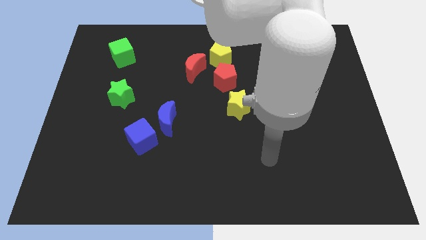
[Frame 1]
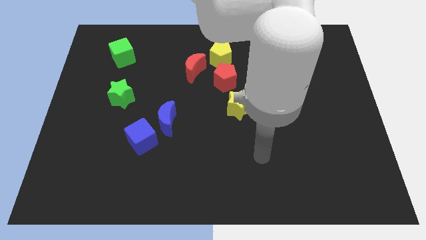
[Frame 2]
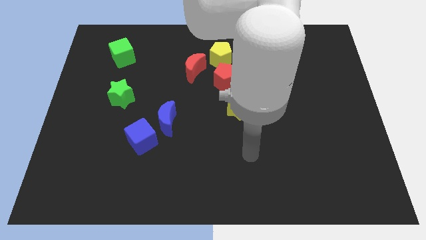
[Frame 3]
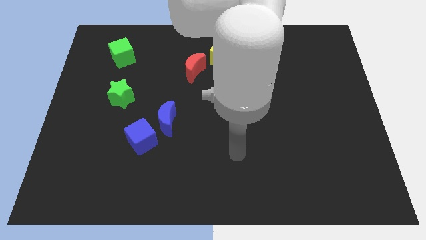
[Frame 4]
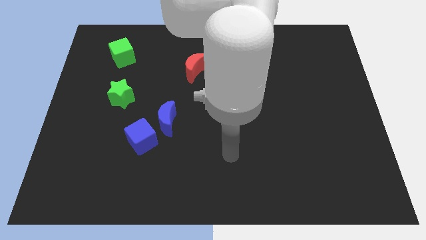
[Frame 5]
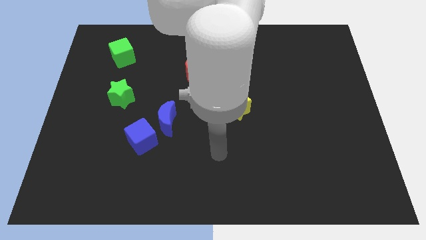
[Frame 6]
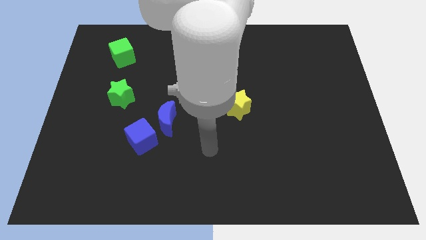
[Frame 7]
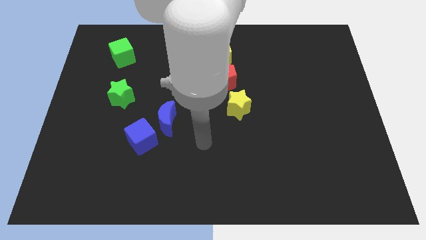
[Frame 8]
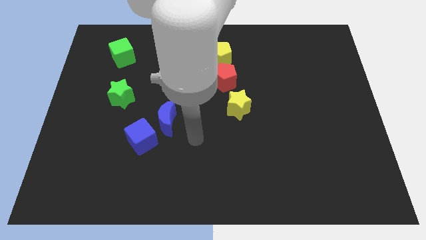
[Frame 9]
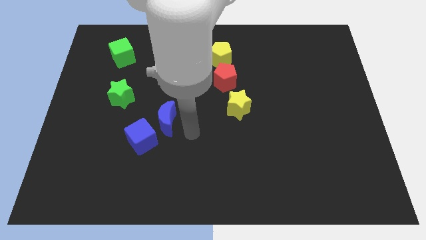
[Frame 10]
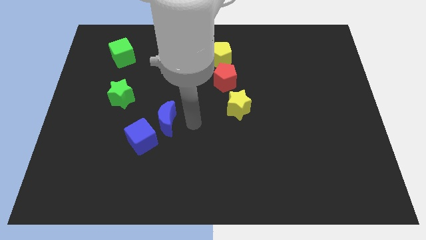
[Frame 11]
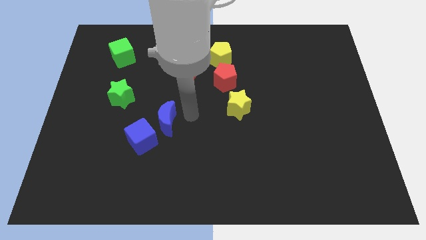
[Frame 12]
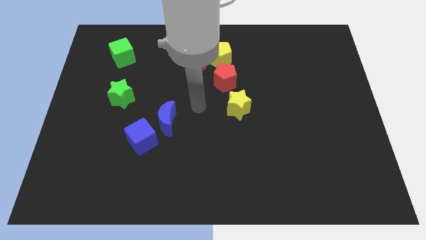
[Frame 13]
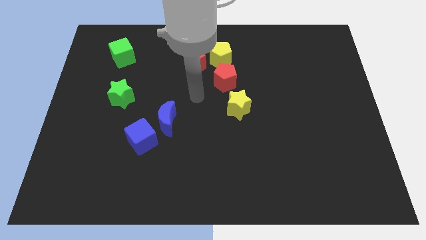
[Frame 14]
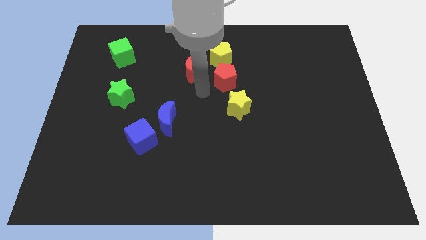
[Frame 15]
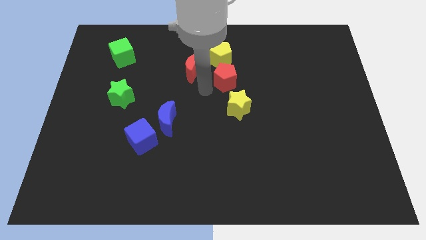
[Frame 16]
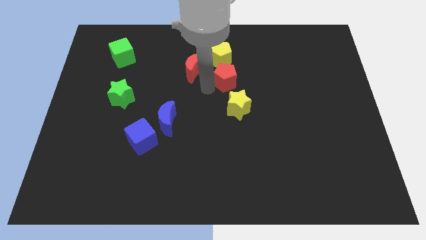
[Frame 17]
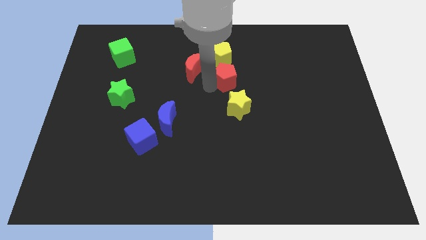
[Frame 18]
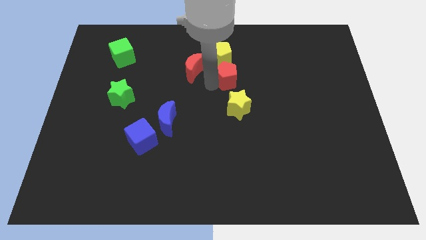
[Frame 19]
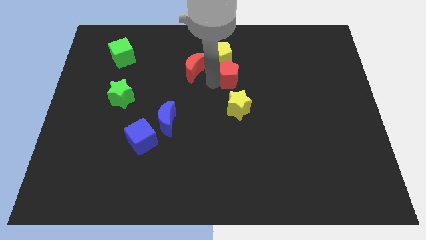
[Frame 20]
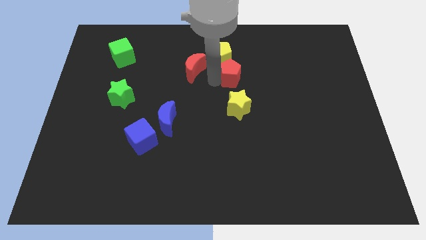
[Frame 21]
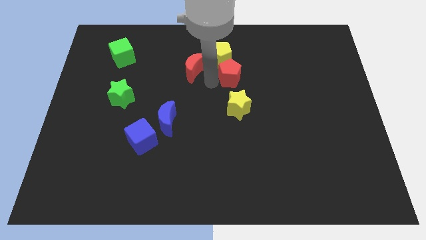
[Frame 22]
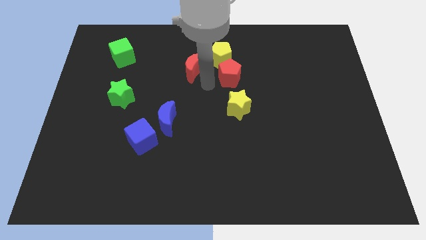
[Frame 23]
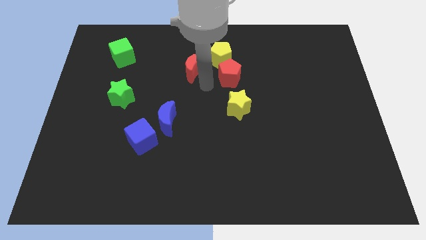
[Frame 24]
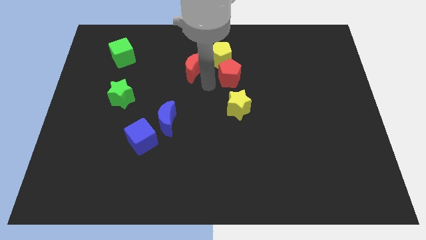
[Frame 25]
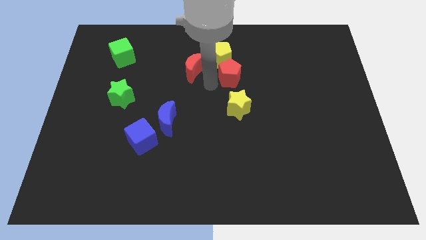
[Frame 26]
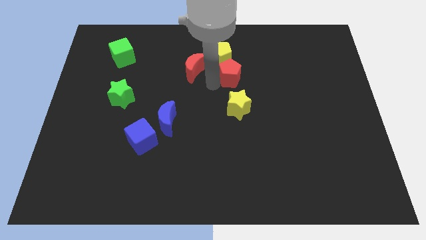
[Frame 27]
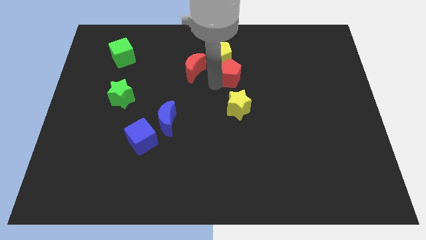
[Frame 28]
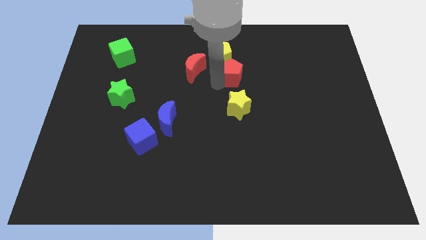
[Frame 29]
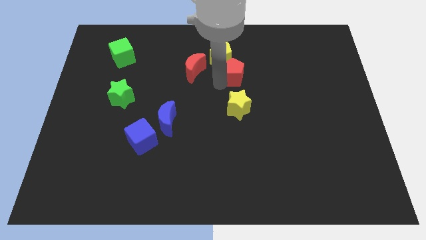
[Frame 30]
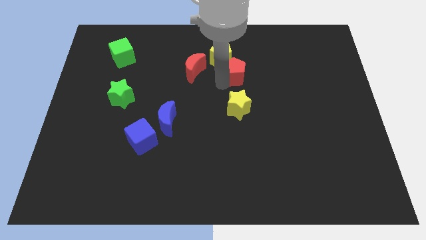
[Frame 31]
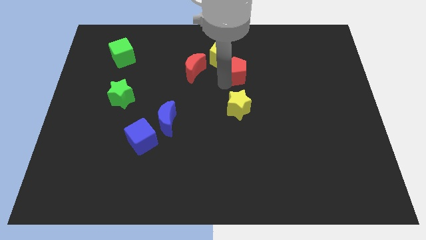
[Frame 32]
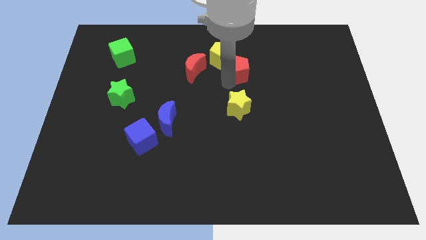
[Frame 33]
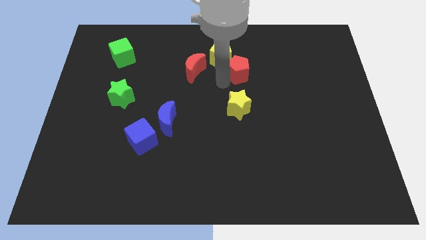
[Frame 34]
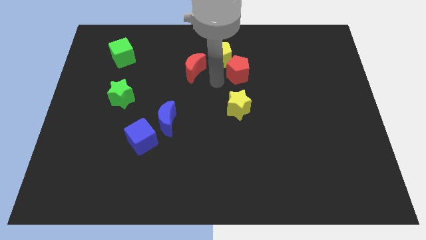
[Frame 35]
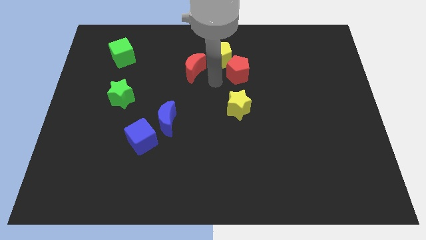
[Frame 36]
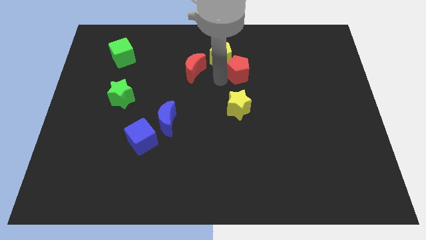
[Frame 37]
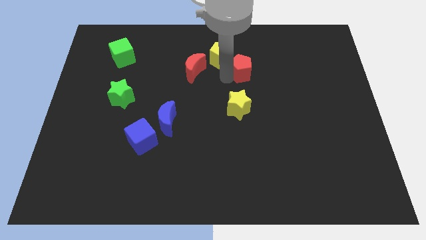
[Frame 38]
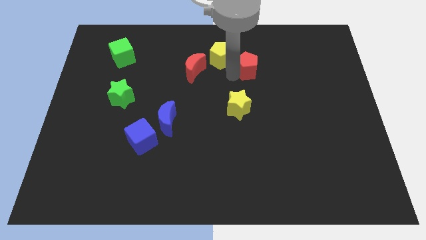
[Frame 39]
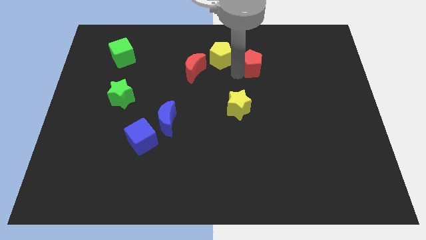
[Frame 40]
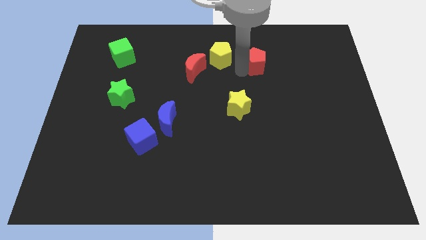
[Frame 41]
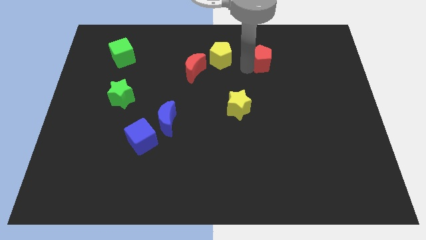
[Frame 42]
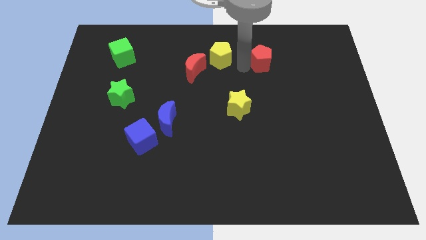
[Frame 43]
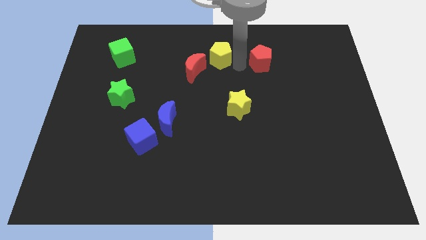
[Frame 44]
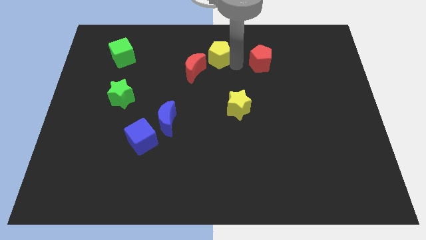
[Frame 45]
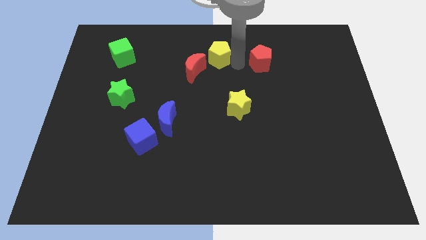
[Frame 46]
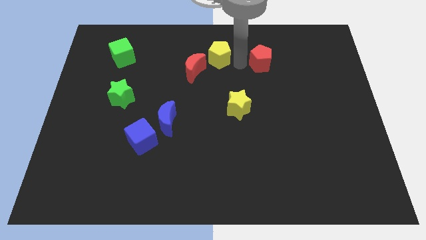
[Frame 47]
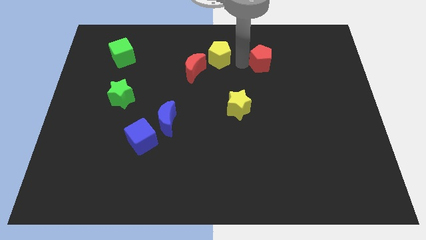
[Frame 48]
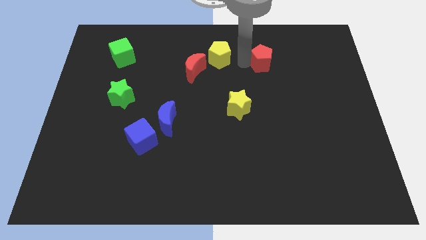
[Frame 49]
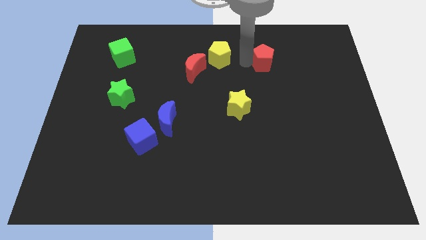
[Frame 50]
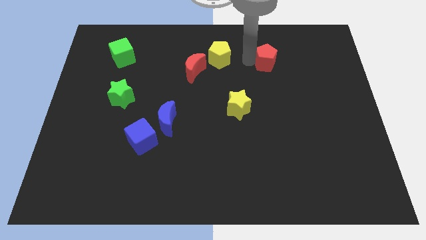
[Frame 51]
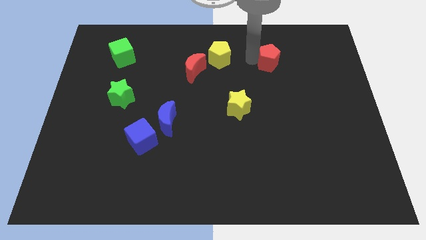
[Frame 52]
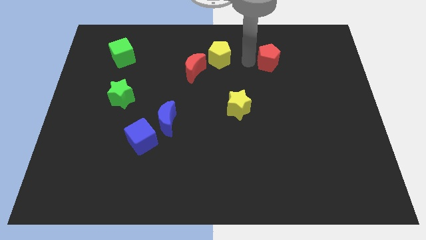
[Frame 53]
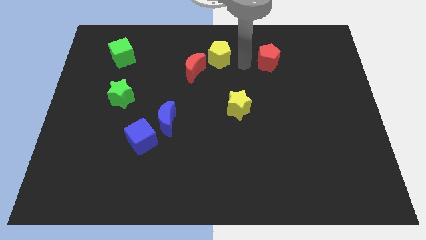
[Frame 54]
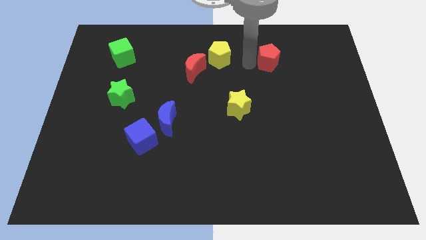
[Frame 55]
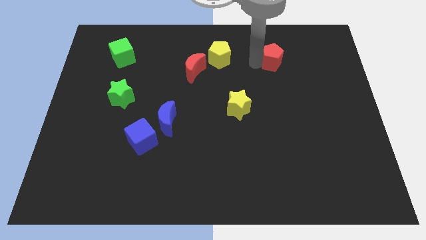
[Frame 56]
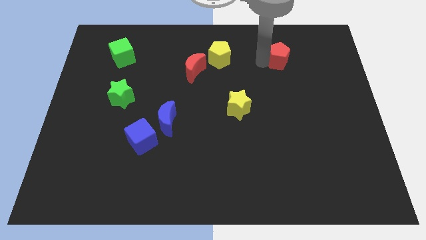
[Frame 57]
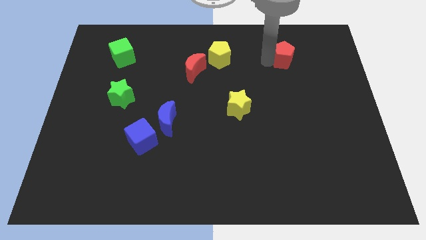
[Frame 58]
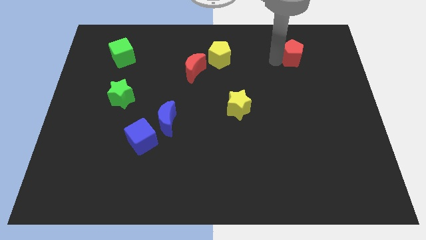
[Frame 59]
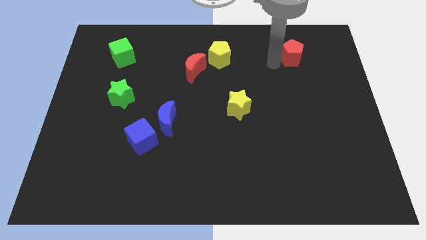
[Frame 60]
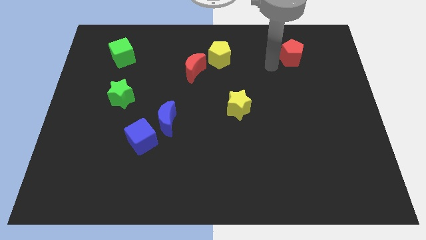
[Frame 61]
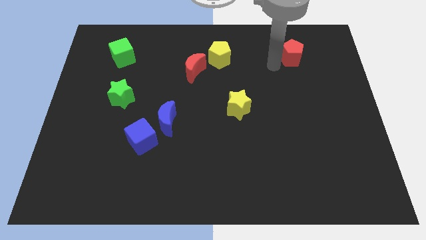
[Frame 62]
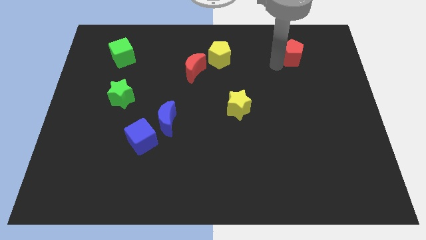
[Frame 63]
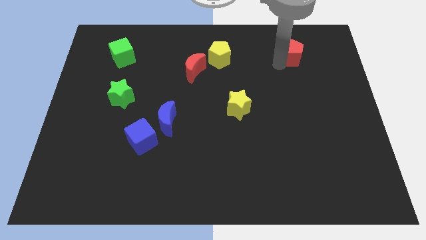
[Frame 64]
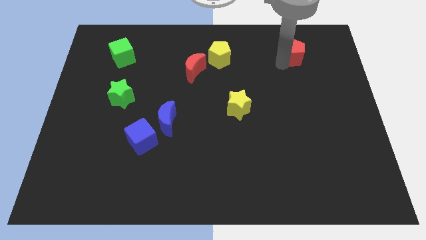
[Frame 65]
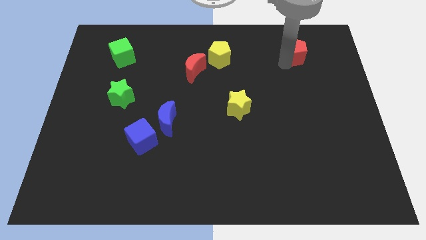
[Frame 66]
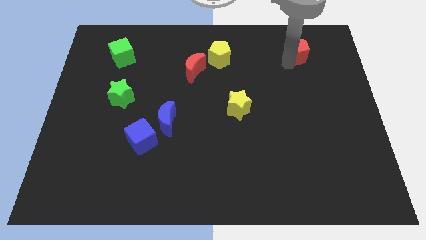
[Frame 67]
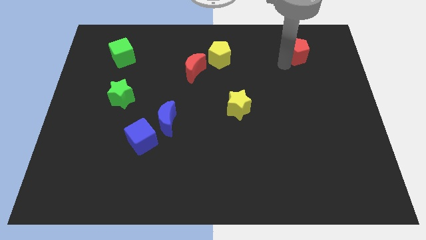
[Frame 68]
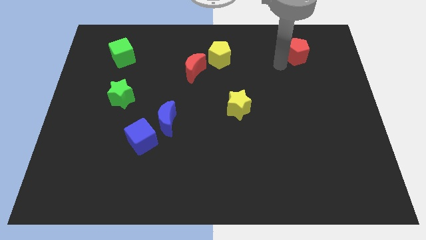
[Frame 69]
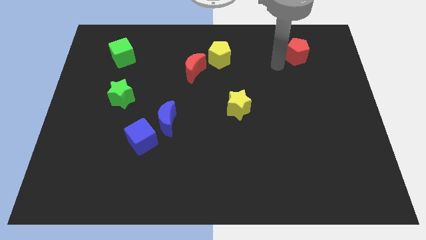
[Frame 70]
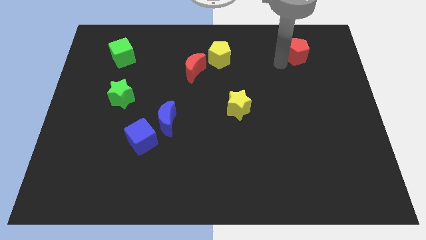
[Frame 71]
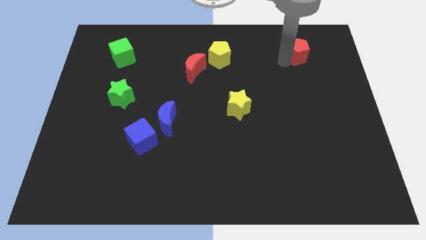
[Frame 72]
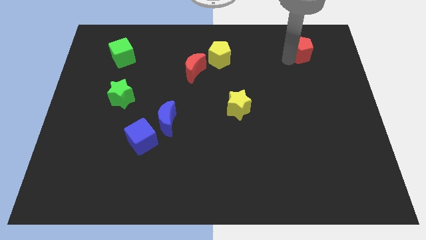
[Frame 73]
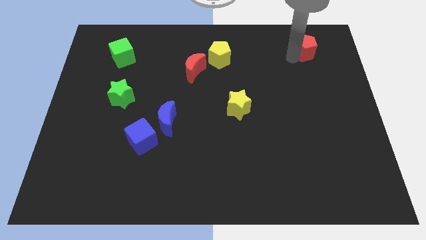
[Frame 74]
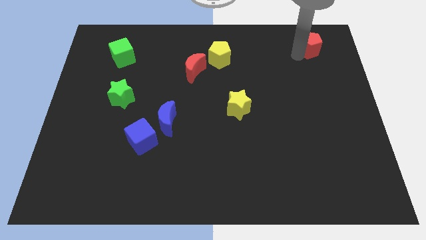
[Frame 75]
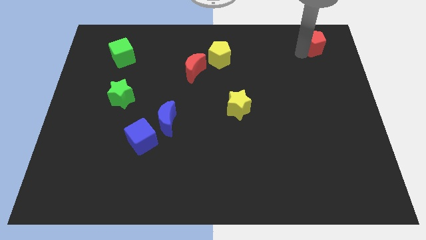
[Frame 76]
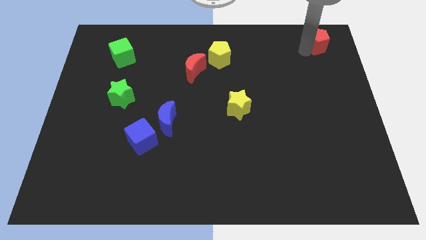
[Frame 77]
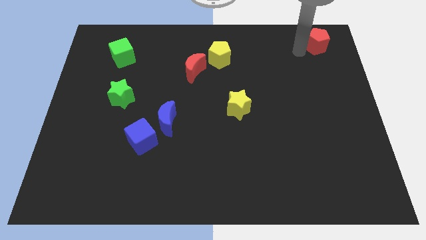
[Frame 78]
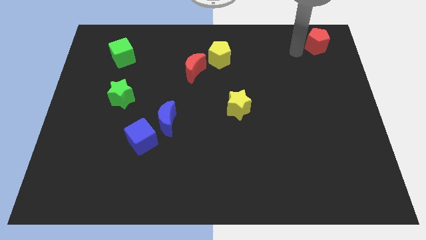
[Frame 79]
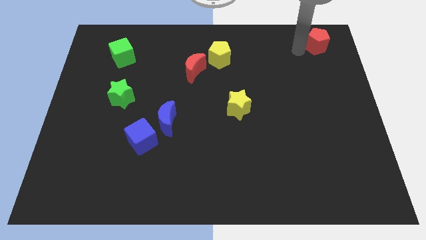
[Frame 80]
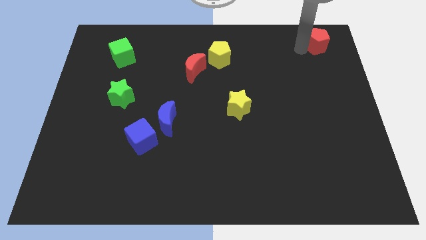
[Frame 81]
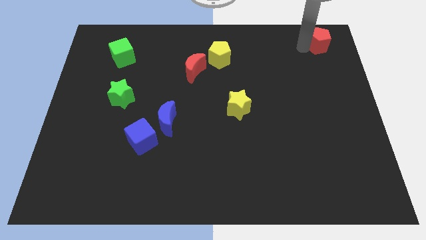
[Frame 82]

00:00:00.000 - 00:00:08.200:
move the red pentagon to the top right of the board
